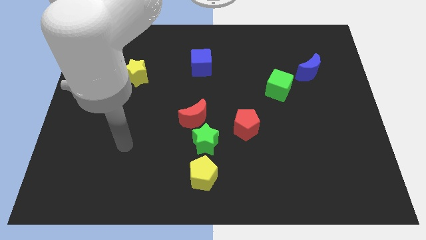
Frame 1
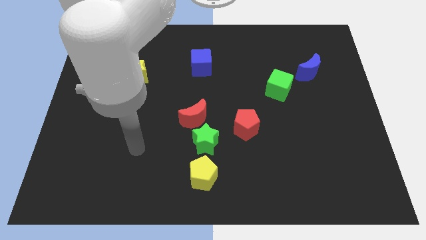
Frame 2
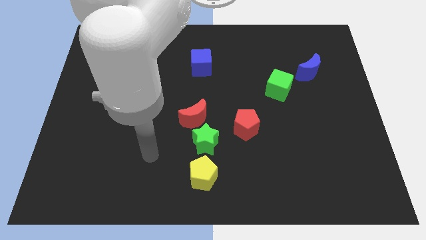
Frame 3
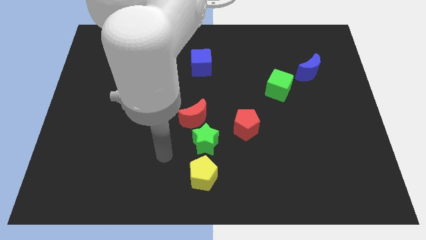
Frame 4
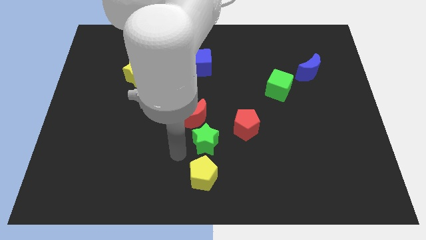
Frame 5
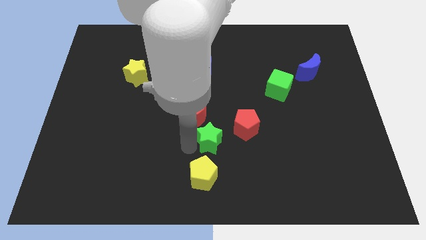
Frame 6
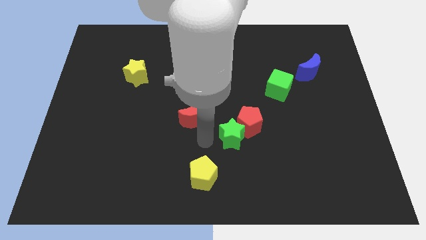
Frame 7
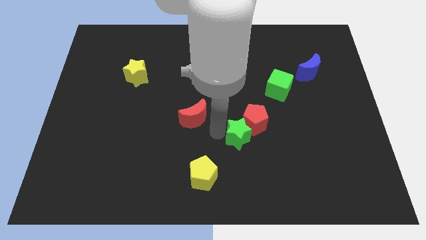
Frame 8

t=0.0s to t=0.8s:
pull the red moon apart from the green star

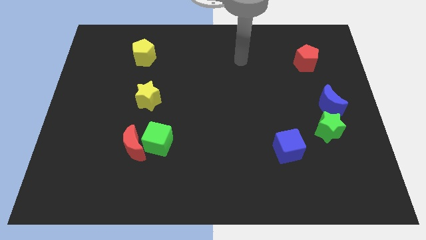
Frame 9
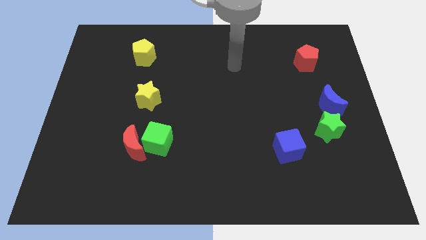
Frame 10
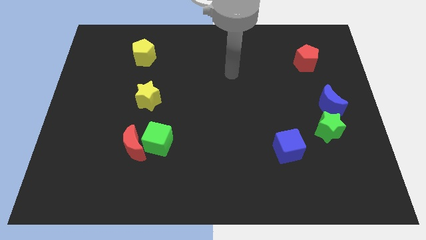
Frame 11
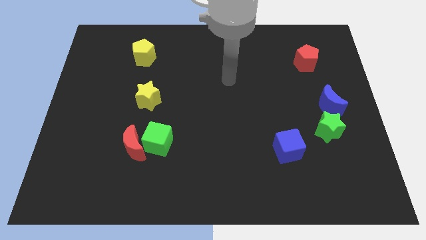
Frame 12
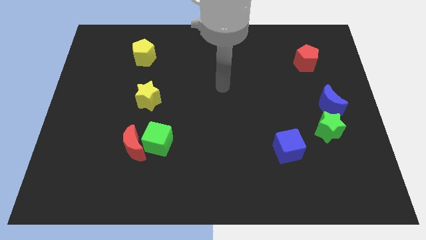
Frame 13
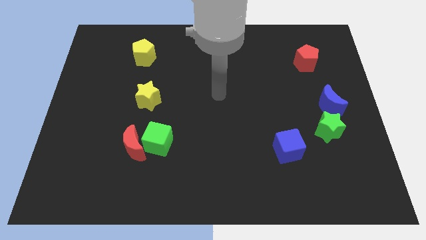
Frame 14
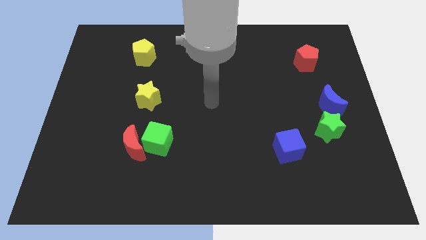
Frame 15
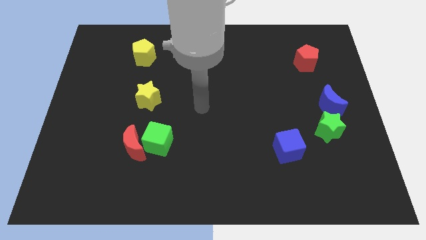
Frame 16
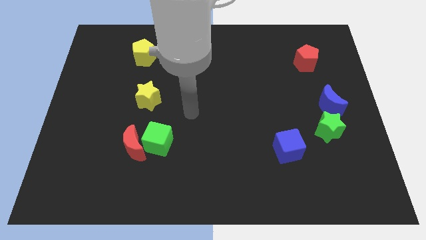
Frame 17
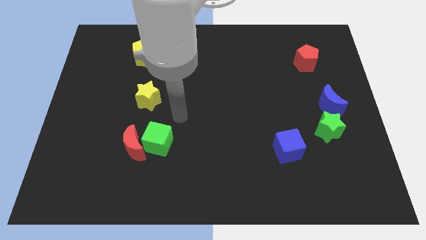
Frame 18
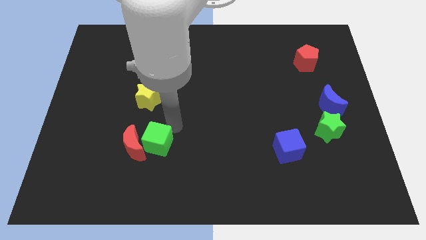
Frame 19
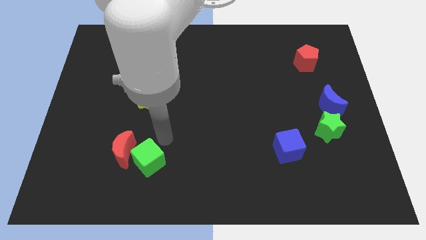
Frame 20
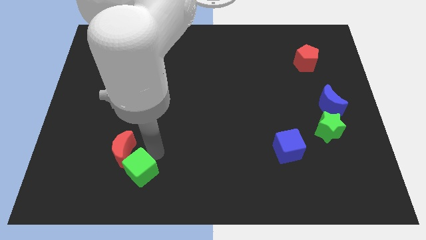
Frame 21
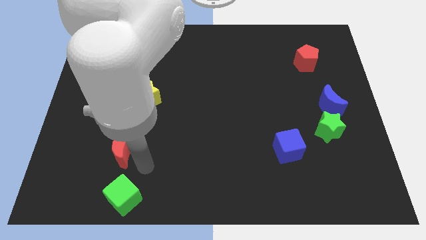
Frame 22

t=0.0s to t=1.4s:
move the red moon away from the green cube

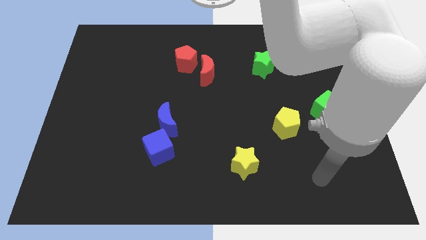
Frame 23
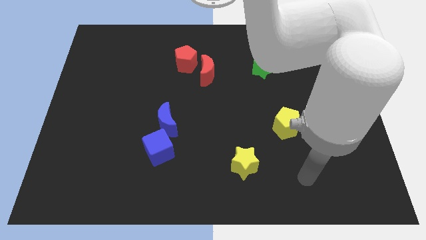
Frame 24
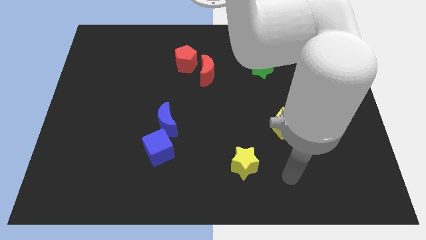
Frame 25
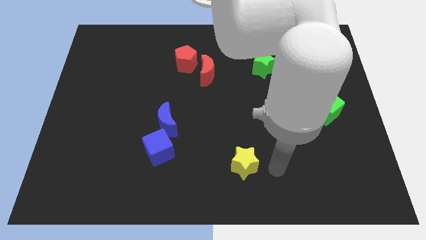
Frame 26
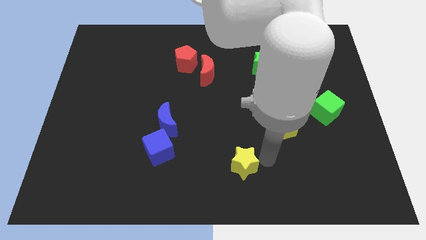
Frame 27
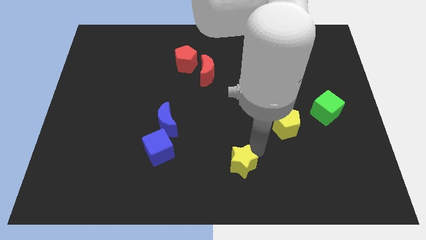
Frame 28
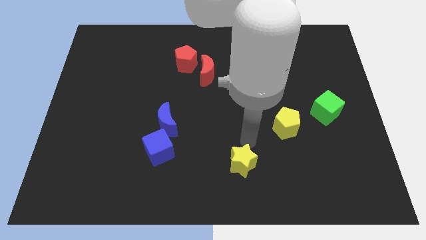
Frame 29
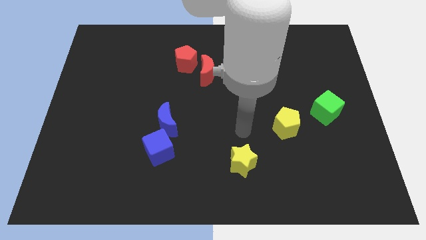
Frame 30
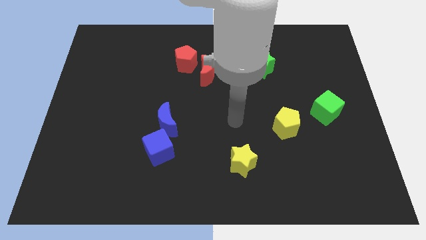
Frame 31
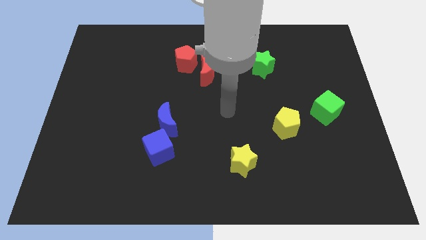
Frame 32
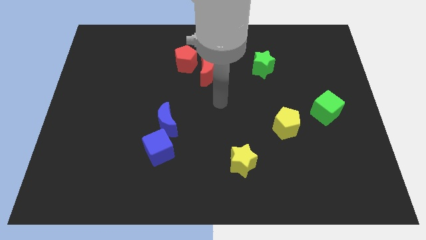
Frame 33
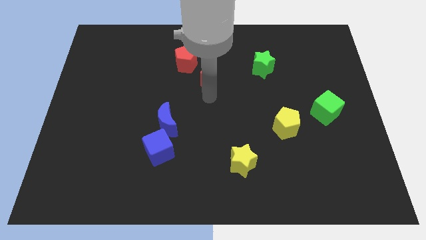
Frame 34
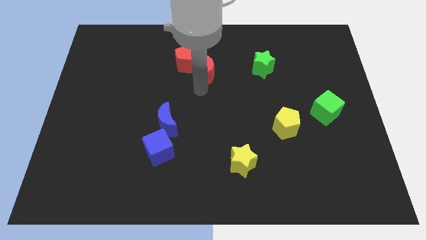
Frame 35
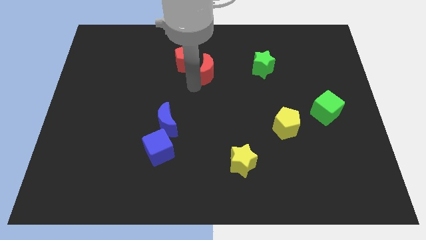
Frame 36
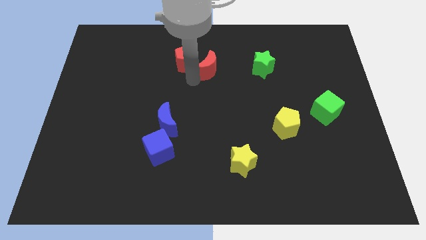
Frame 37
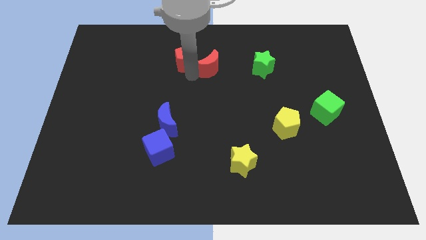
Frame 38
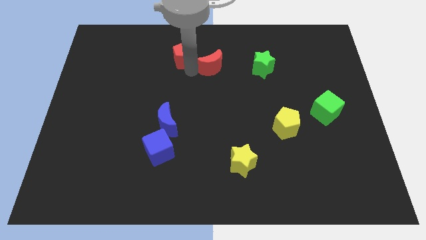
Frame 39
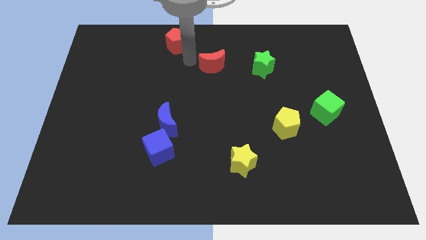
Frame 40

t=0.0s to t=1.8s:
pull the red moon apart from the red pentagon

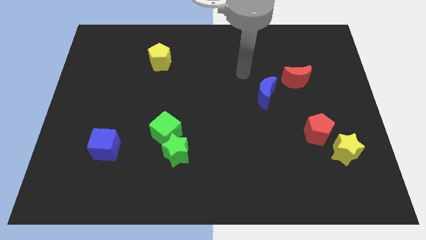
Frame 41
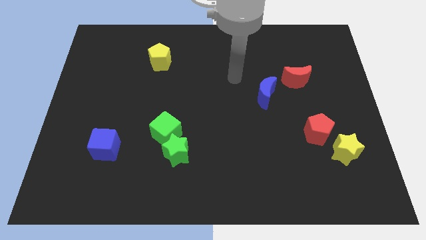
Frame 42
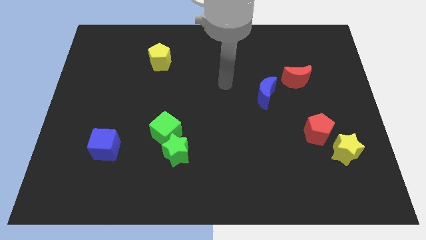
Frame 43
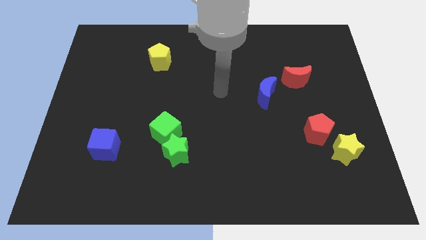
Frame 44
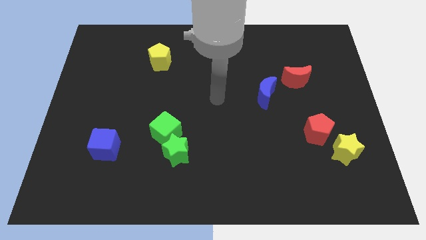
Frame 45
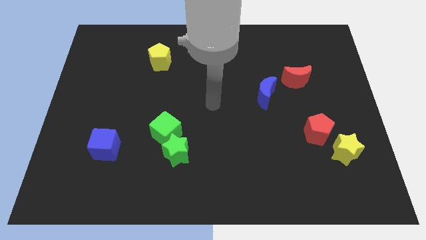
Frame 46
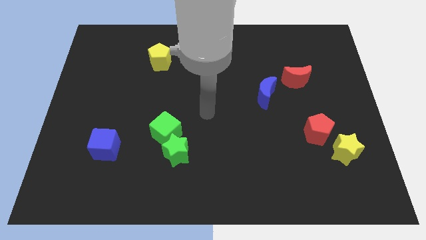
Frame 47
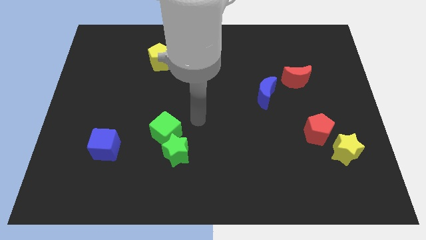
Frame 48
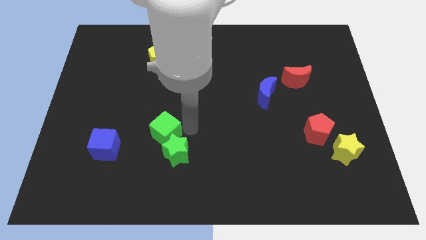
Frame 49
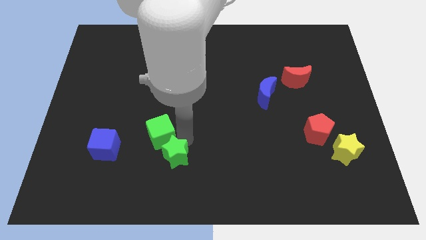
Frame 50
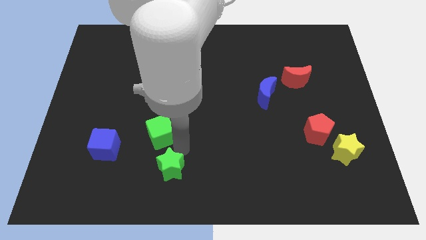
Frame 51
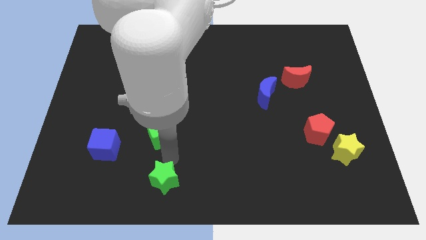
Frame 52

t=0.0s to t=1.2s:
pull the green cube apart from the green star

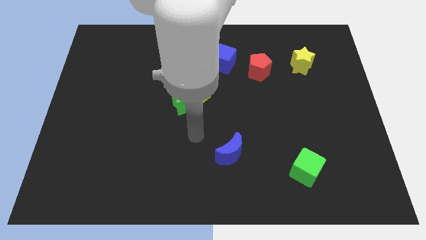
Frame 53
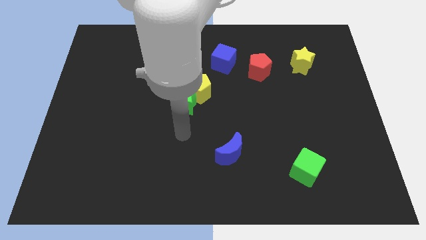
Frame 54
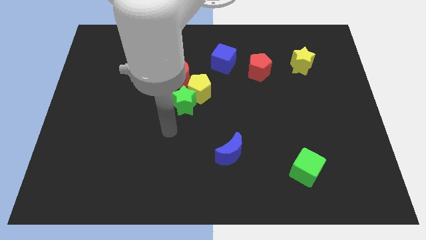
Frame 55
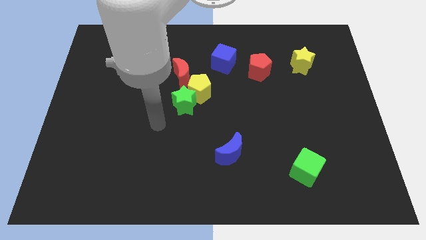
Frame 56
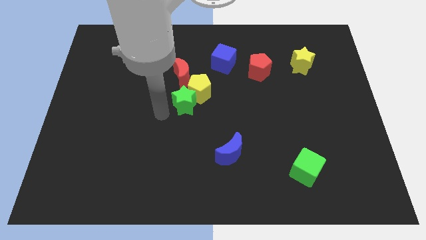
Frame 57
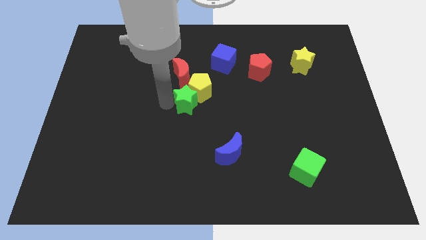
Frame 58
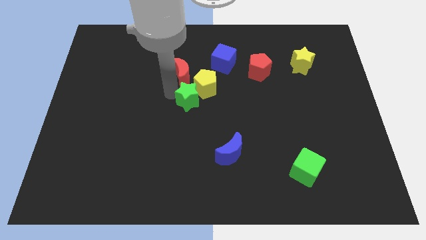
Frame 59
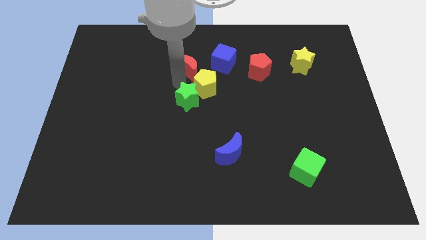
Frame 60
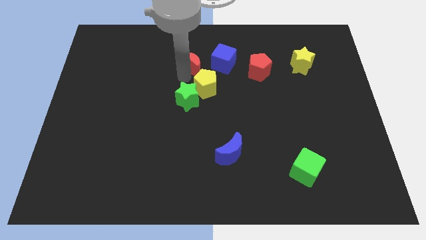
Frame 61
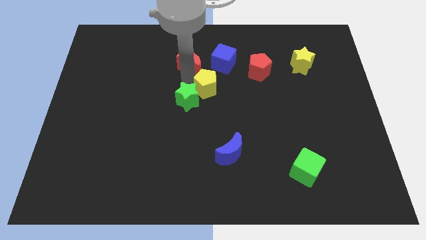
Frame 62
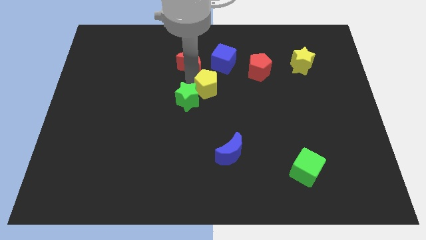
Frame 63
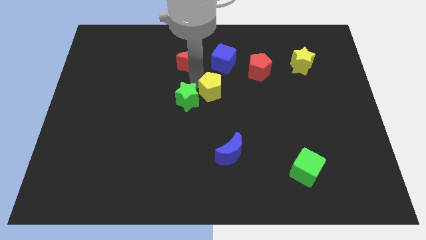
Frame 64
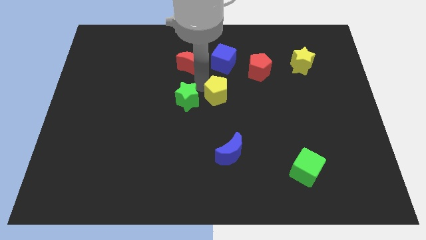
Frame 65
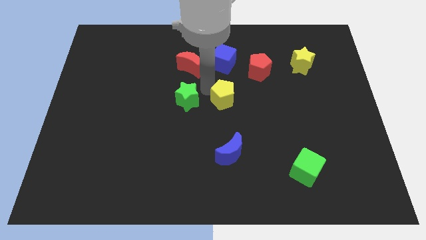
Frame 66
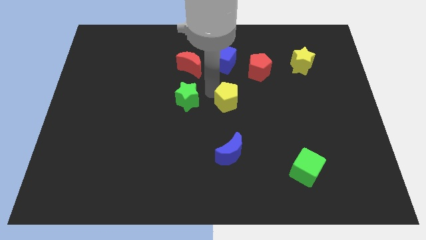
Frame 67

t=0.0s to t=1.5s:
move the yellow pentagon away from the green star and red moon

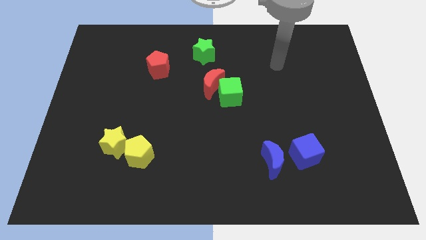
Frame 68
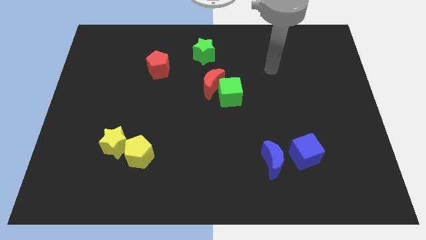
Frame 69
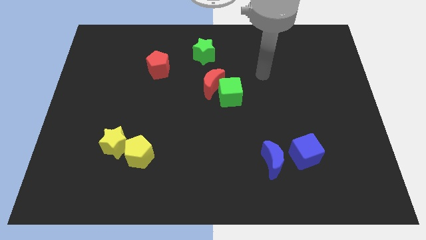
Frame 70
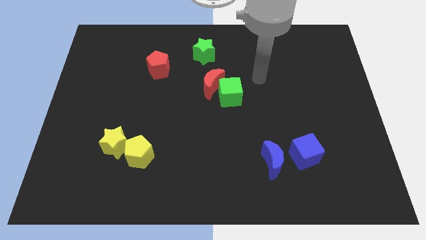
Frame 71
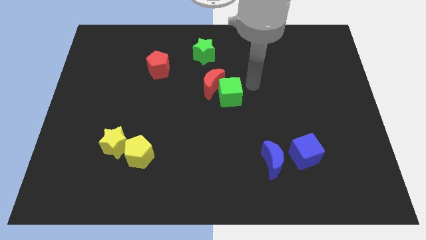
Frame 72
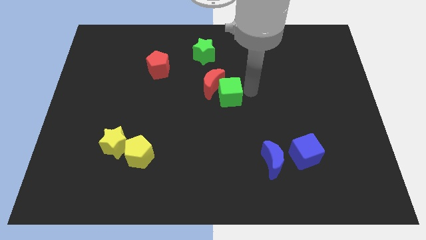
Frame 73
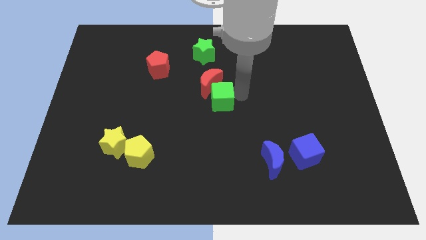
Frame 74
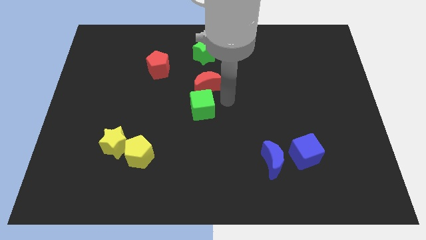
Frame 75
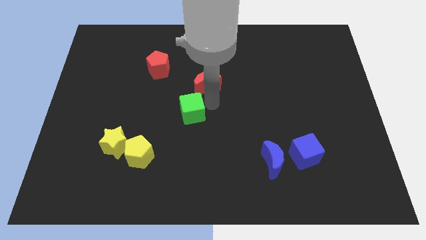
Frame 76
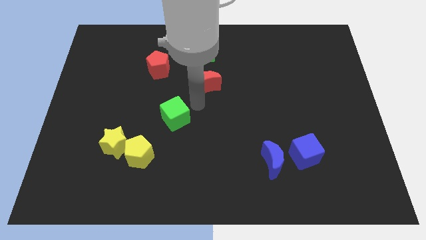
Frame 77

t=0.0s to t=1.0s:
pull the red moon apart from the green cube

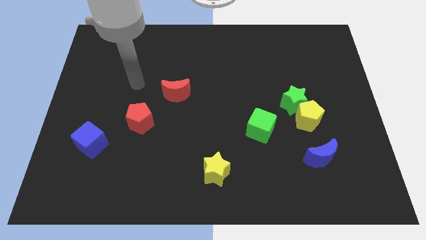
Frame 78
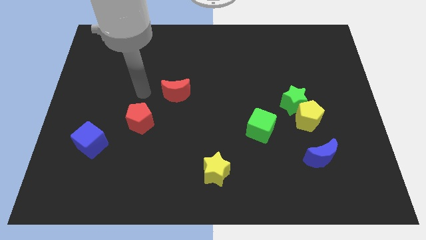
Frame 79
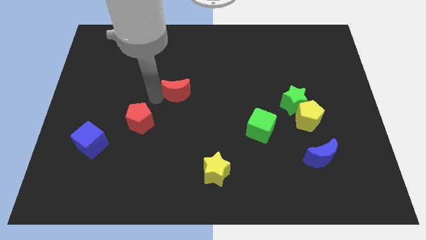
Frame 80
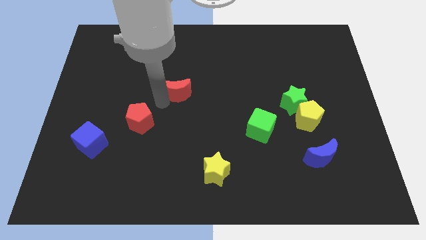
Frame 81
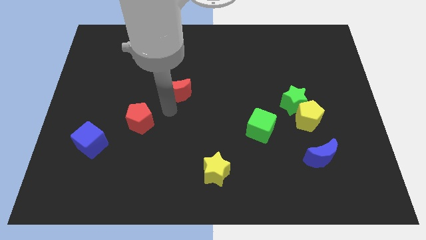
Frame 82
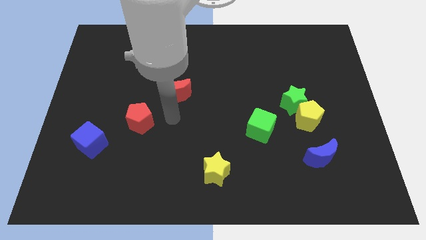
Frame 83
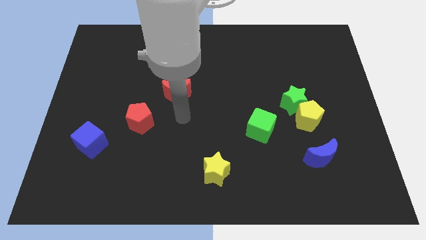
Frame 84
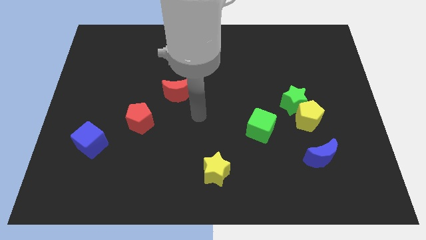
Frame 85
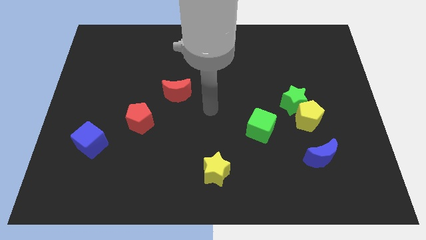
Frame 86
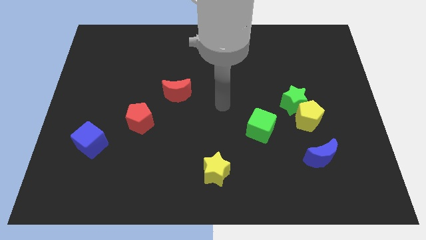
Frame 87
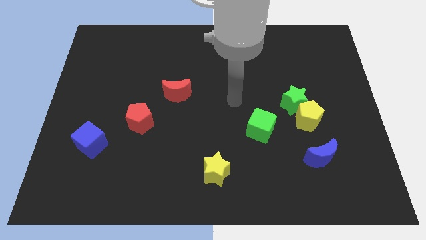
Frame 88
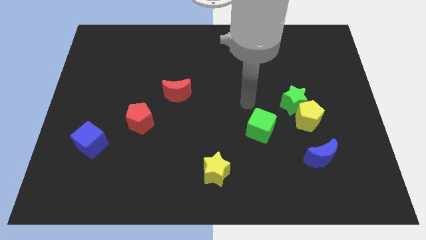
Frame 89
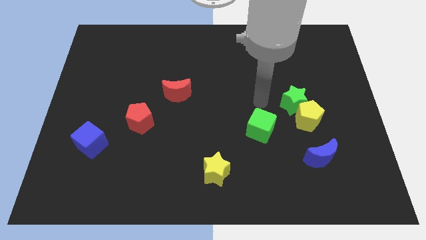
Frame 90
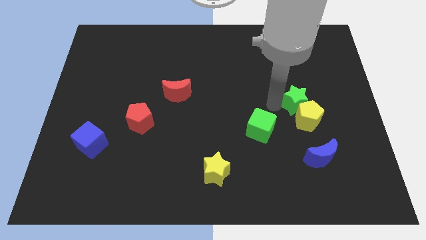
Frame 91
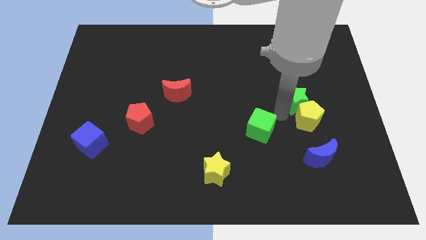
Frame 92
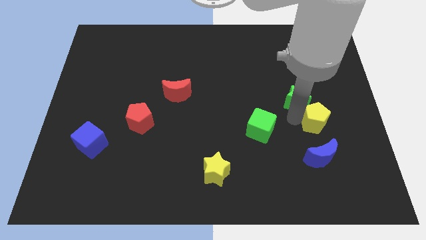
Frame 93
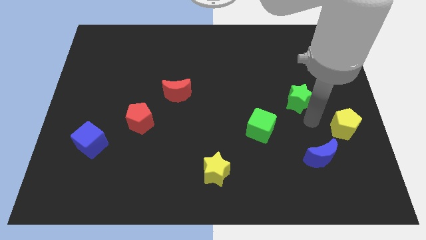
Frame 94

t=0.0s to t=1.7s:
pull the green star apart from the yellow pentagon
